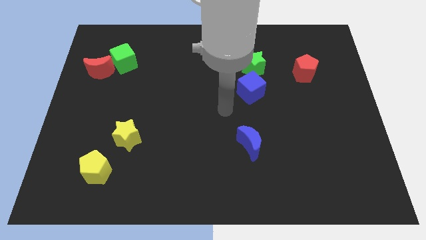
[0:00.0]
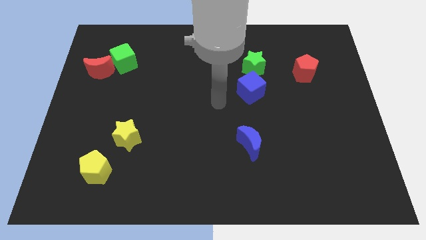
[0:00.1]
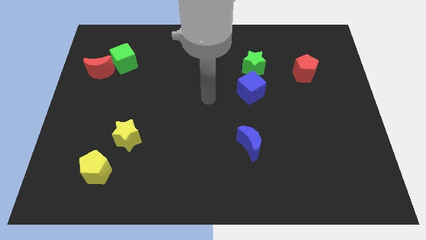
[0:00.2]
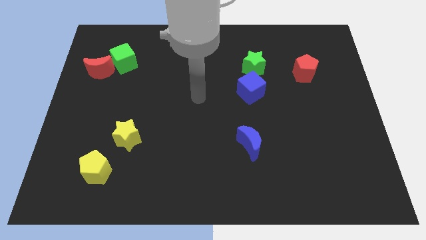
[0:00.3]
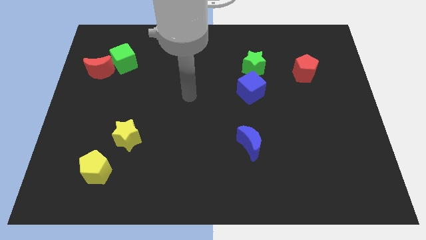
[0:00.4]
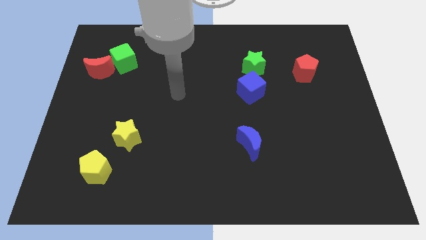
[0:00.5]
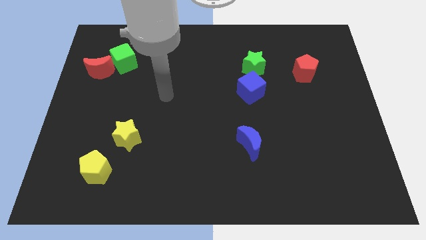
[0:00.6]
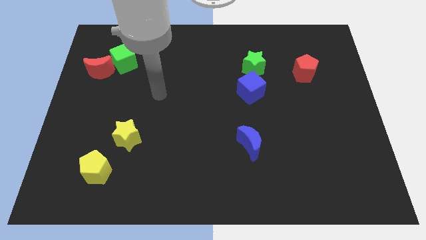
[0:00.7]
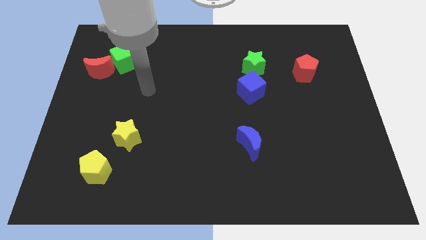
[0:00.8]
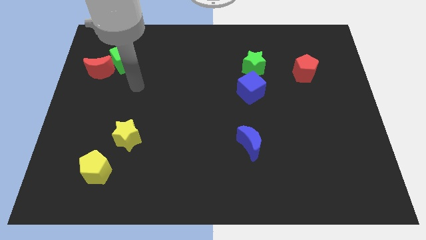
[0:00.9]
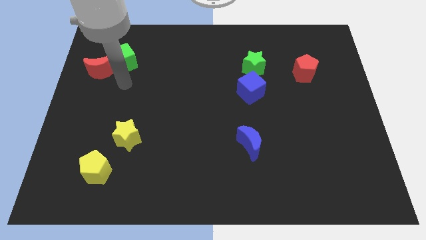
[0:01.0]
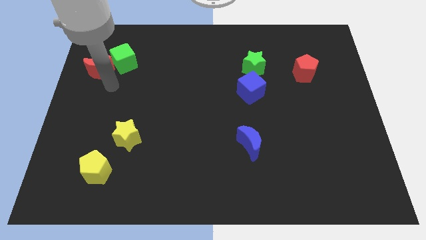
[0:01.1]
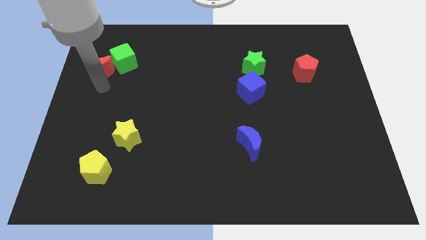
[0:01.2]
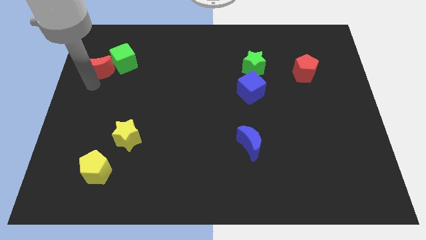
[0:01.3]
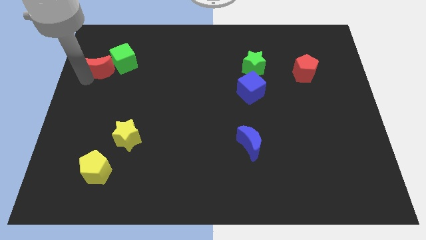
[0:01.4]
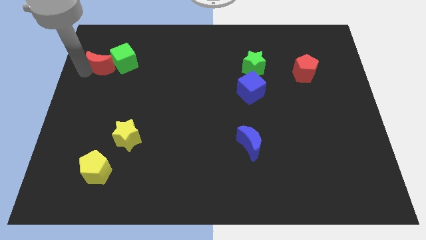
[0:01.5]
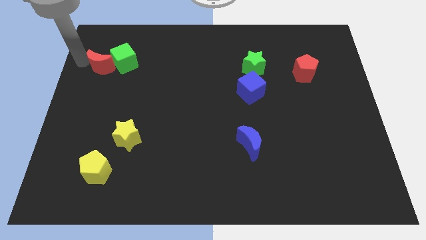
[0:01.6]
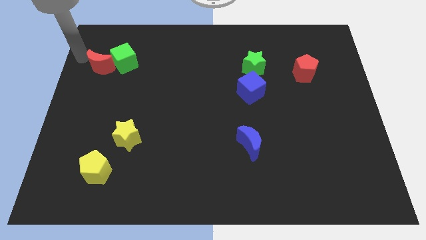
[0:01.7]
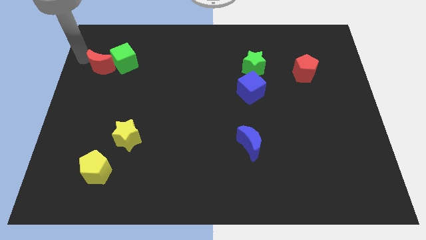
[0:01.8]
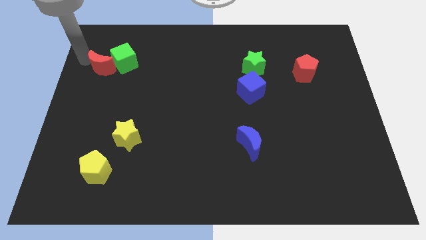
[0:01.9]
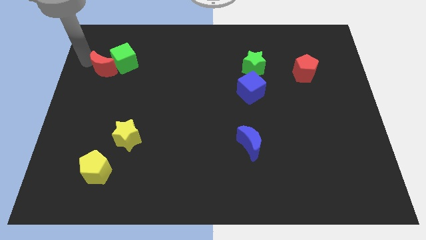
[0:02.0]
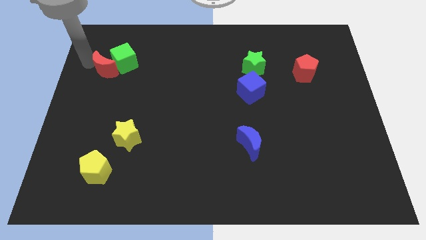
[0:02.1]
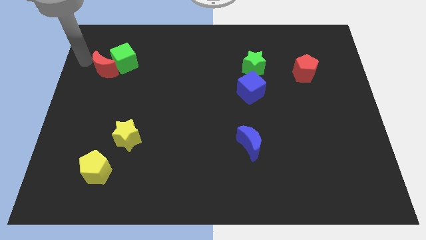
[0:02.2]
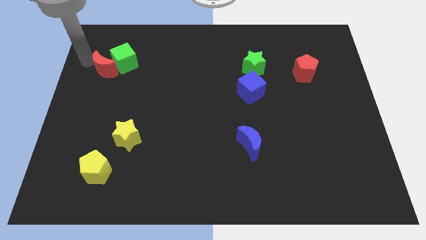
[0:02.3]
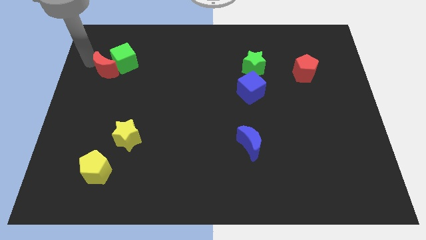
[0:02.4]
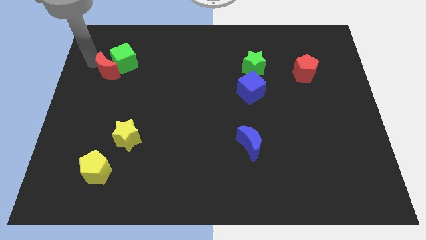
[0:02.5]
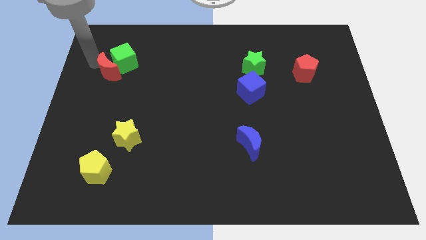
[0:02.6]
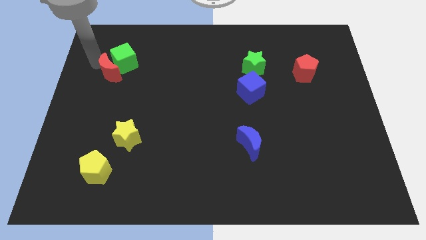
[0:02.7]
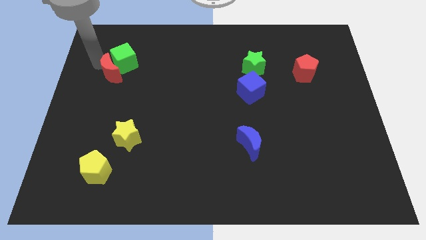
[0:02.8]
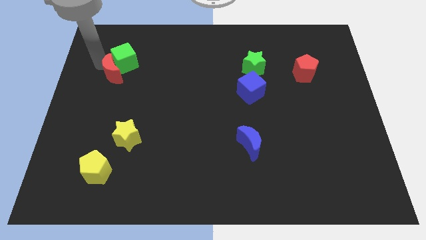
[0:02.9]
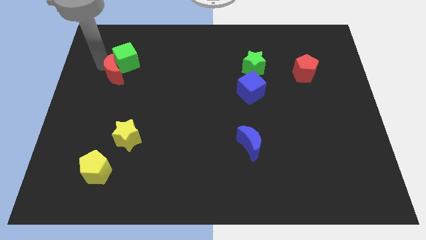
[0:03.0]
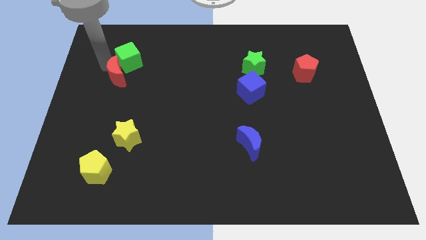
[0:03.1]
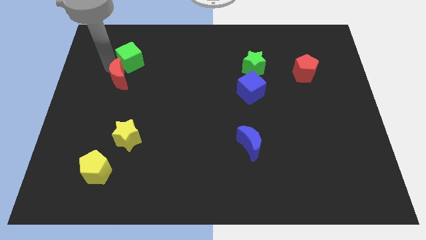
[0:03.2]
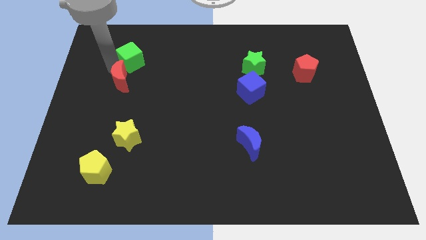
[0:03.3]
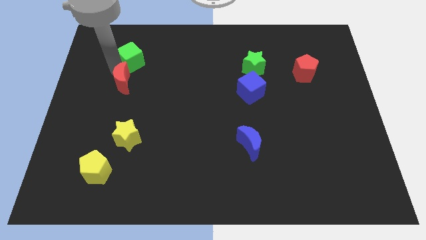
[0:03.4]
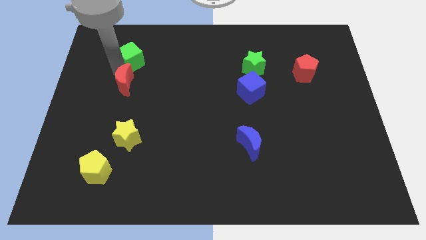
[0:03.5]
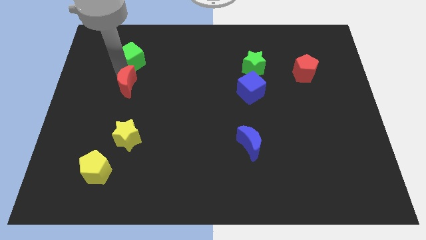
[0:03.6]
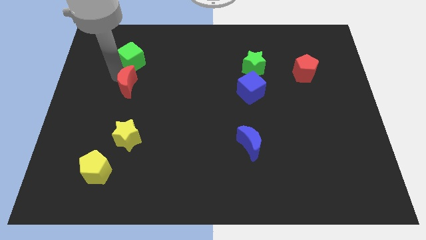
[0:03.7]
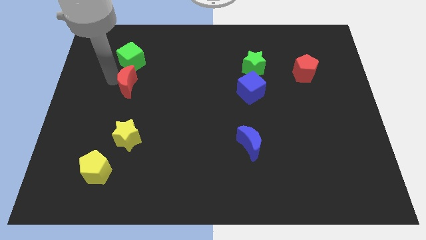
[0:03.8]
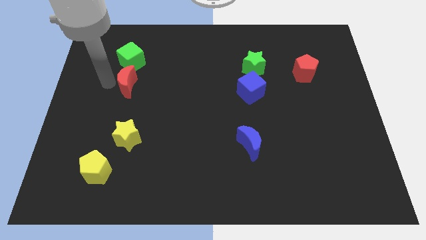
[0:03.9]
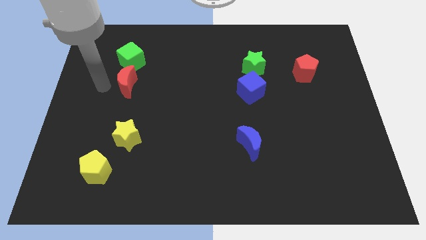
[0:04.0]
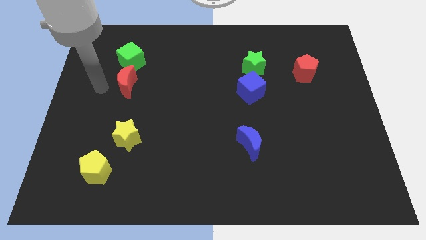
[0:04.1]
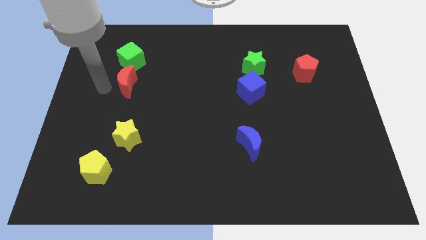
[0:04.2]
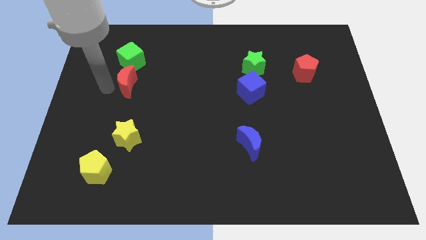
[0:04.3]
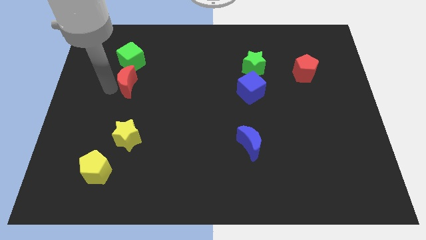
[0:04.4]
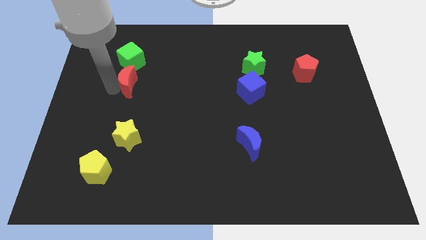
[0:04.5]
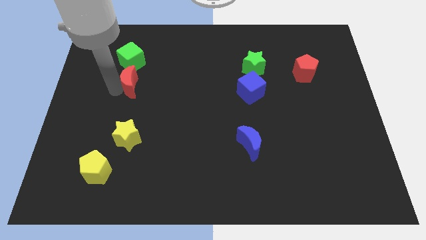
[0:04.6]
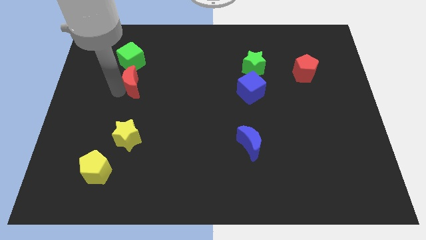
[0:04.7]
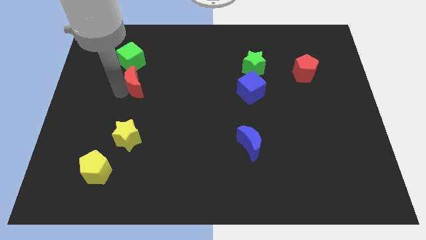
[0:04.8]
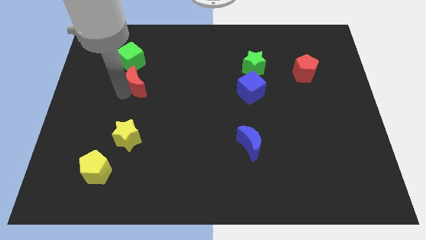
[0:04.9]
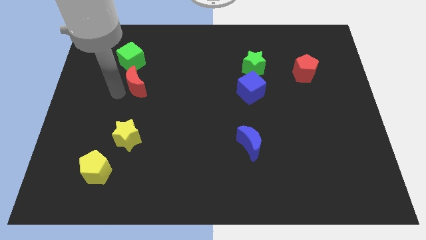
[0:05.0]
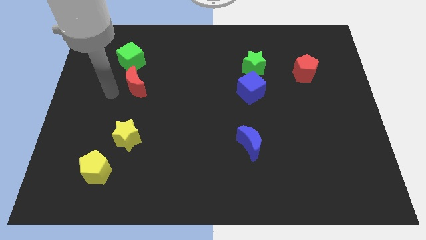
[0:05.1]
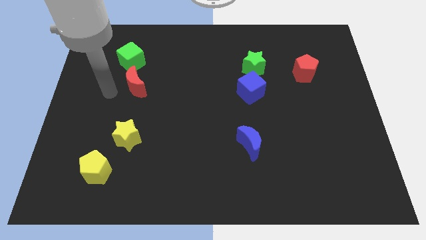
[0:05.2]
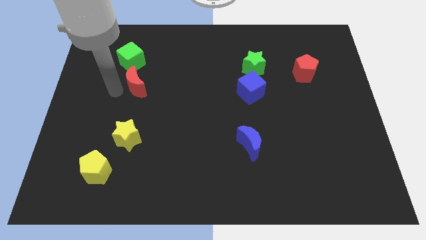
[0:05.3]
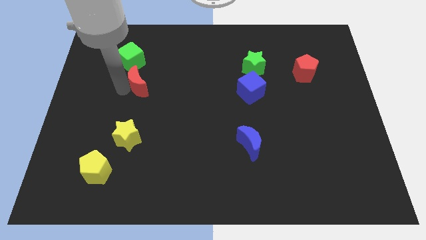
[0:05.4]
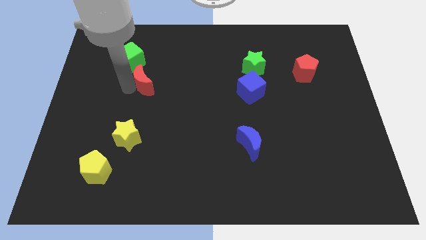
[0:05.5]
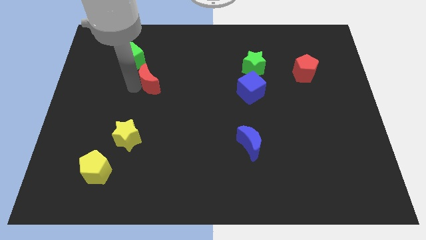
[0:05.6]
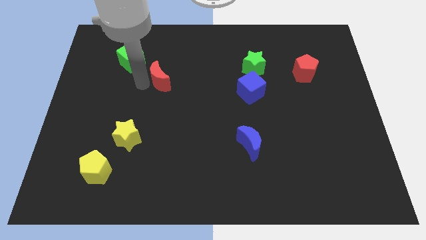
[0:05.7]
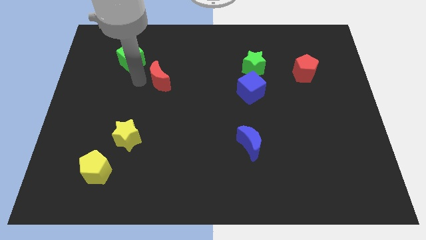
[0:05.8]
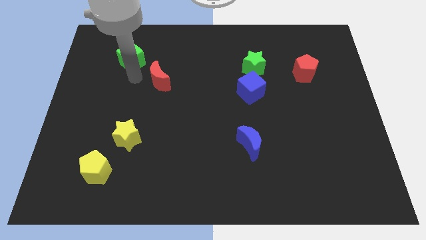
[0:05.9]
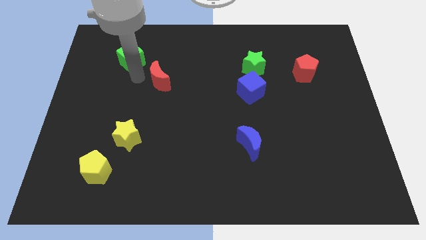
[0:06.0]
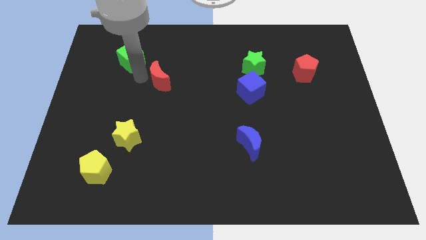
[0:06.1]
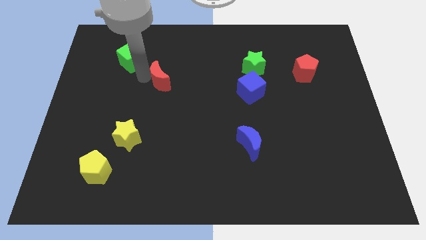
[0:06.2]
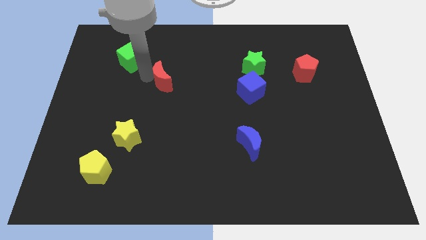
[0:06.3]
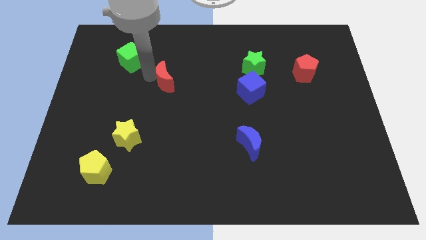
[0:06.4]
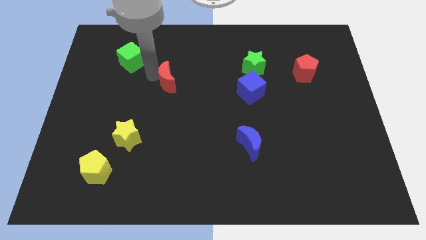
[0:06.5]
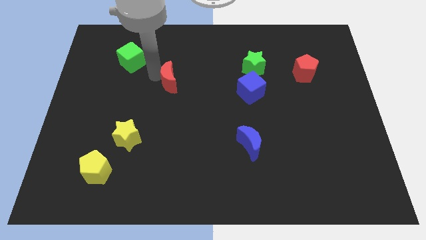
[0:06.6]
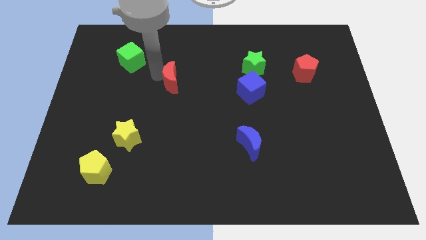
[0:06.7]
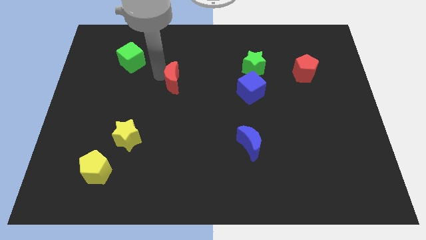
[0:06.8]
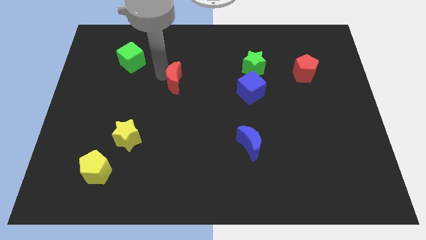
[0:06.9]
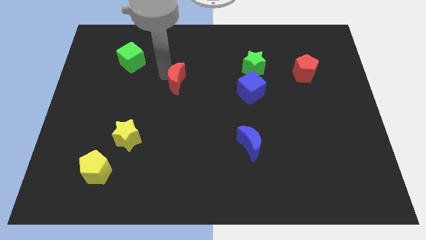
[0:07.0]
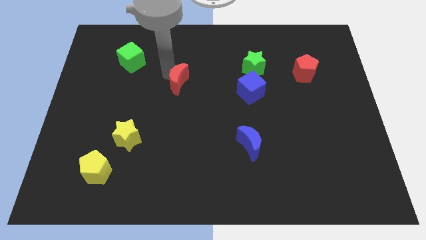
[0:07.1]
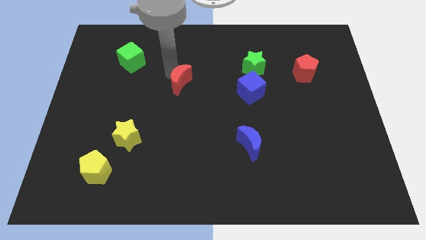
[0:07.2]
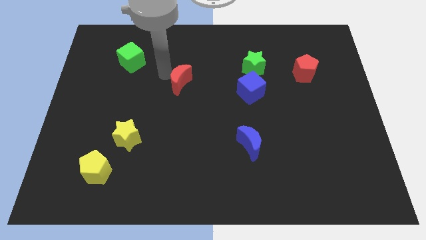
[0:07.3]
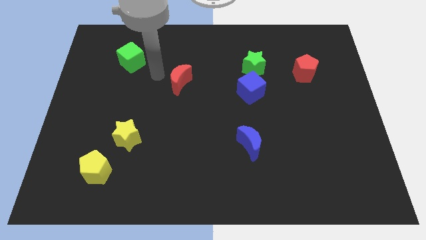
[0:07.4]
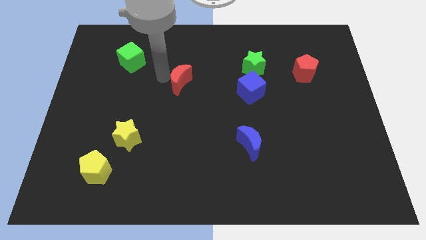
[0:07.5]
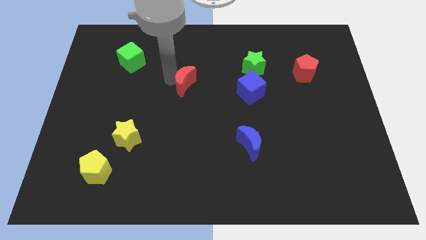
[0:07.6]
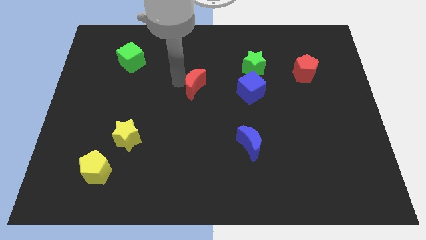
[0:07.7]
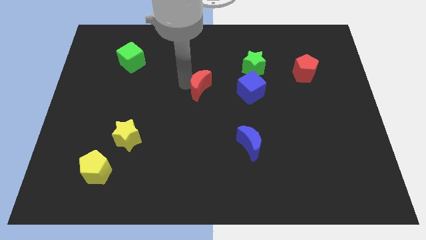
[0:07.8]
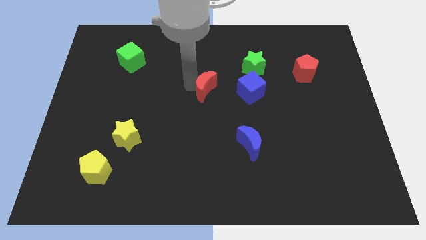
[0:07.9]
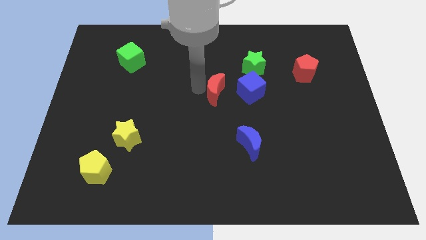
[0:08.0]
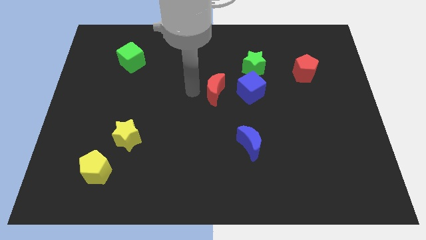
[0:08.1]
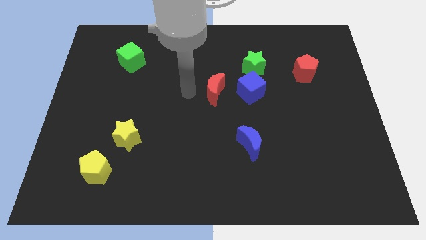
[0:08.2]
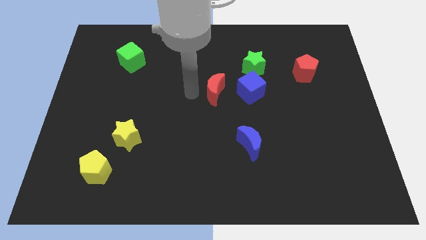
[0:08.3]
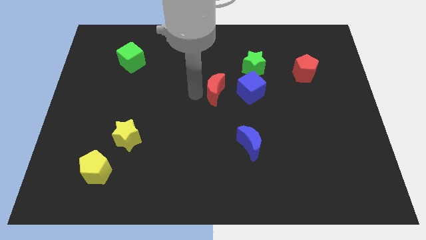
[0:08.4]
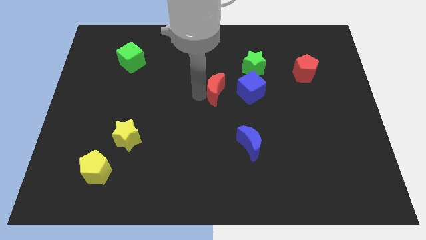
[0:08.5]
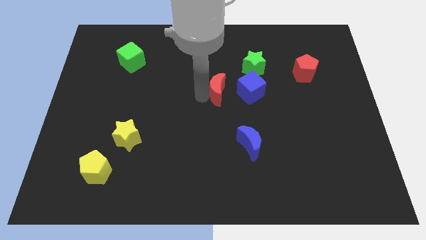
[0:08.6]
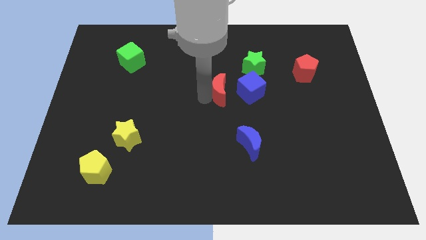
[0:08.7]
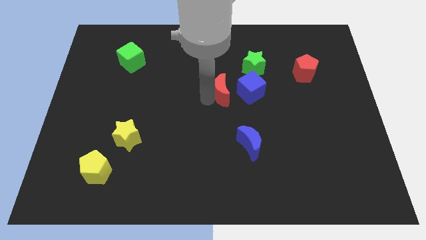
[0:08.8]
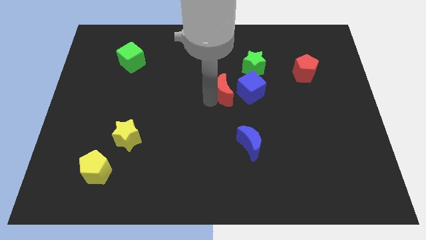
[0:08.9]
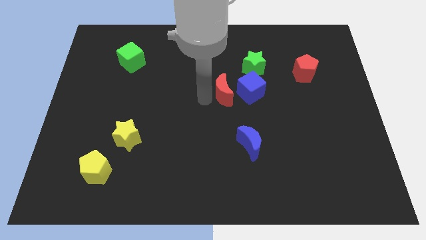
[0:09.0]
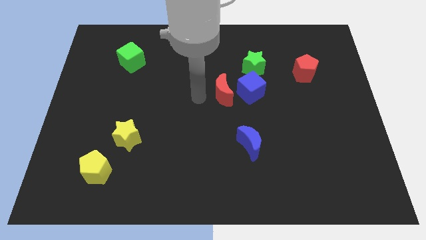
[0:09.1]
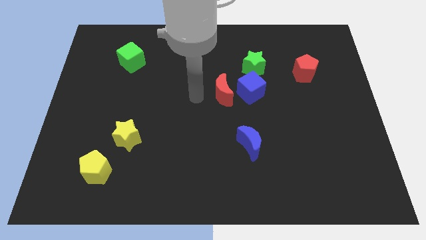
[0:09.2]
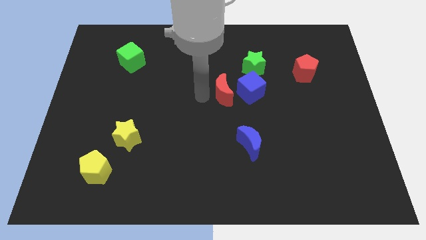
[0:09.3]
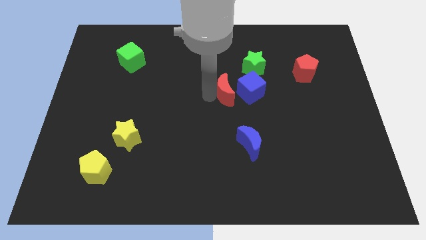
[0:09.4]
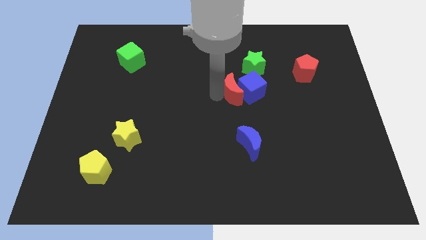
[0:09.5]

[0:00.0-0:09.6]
move the red moon next to the blue cube
